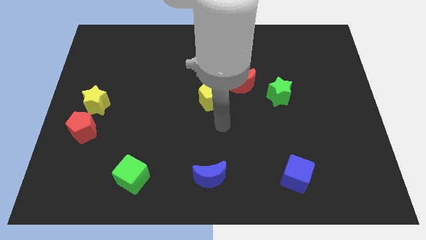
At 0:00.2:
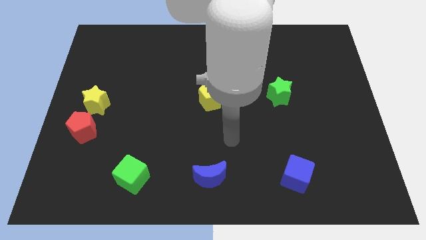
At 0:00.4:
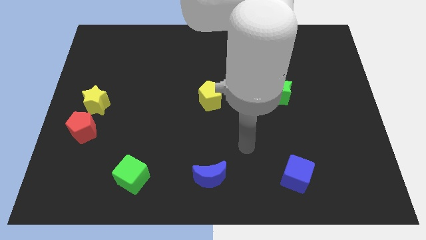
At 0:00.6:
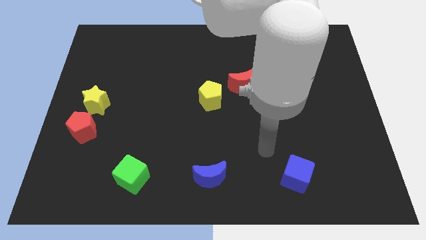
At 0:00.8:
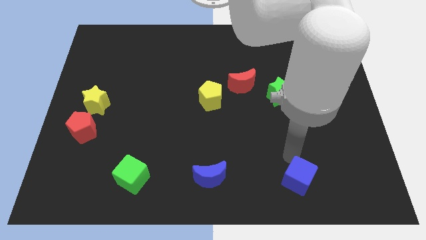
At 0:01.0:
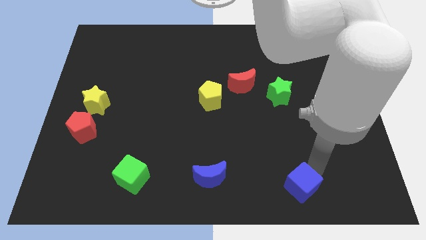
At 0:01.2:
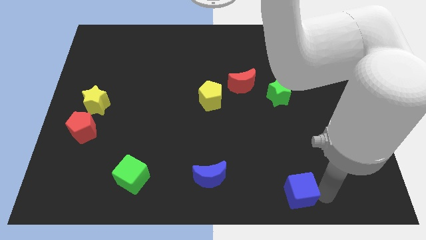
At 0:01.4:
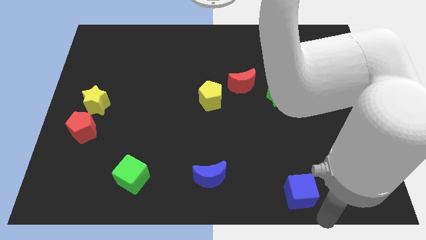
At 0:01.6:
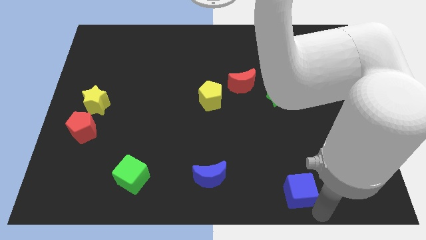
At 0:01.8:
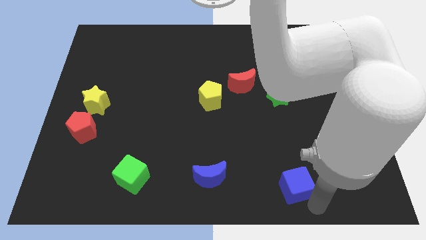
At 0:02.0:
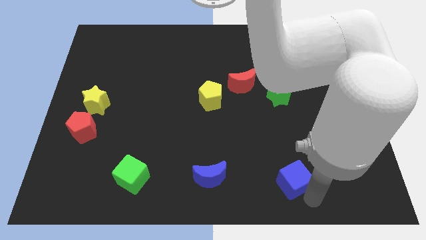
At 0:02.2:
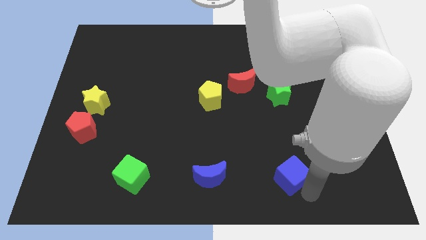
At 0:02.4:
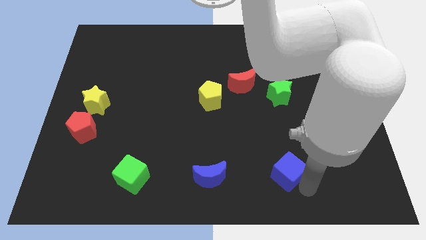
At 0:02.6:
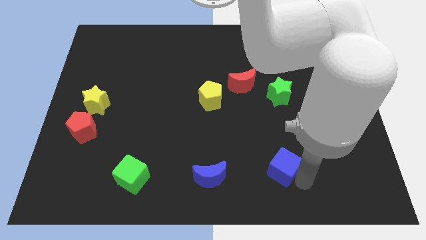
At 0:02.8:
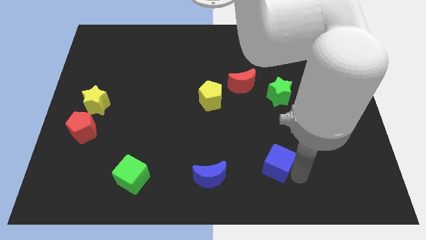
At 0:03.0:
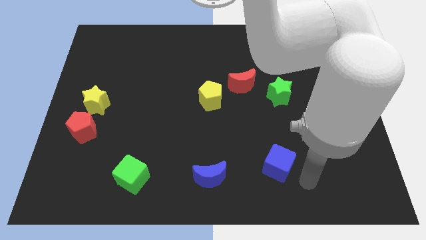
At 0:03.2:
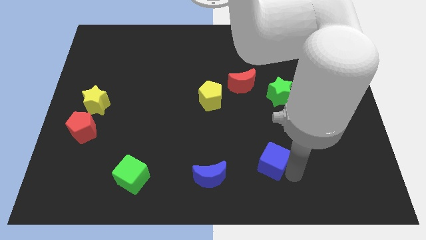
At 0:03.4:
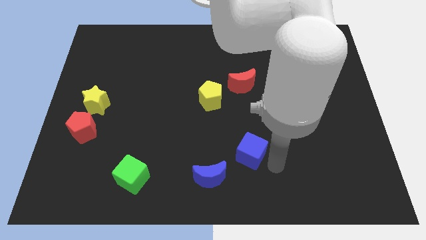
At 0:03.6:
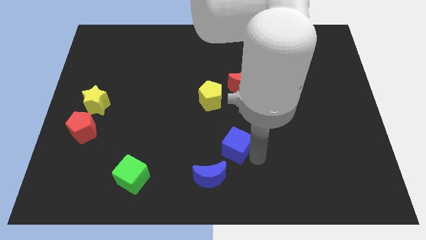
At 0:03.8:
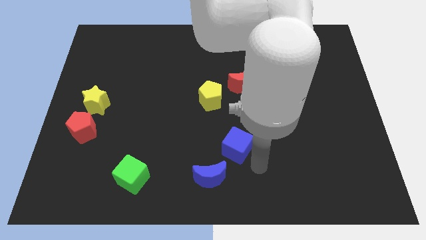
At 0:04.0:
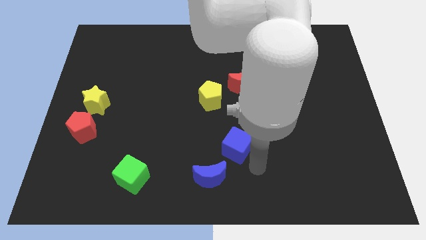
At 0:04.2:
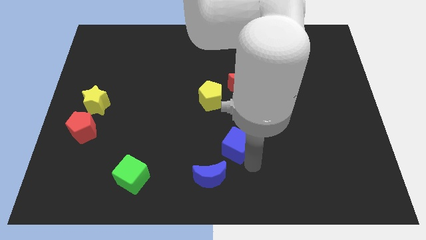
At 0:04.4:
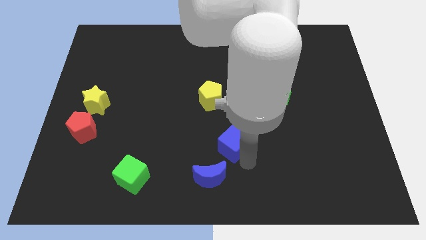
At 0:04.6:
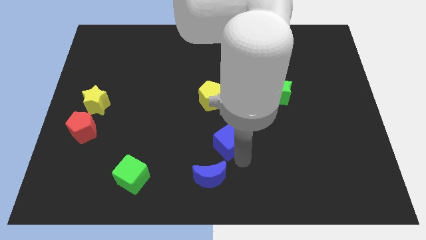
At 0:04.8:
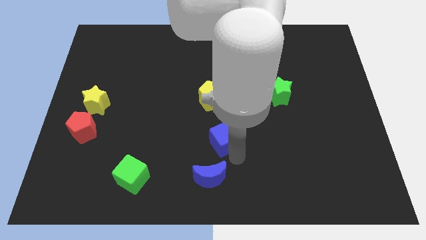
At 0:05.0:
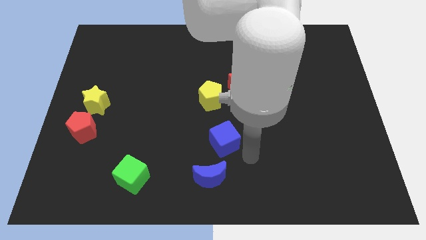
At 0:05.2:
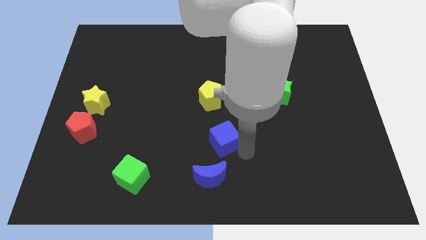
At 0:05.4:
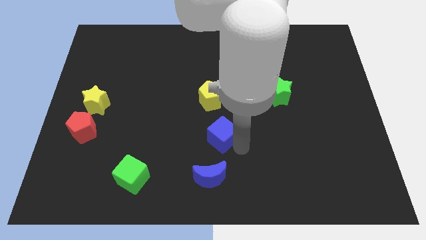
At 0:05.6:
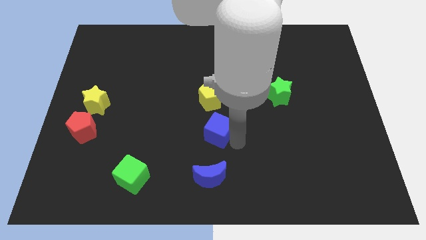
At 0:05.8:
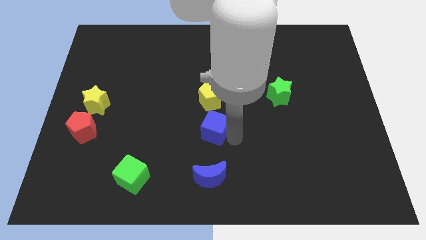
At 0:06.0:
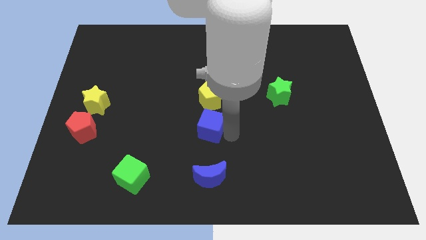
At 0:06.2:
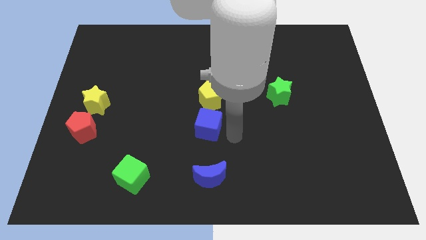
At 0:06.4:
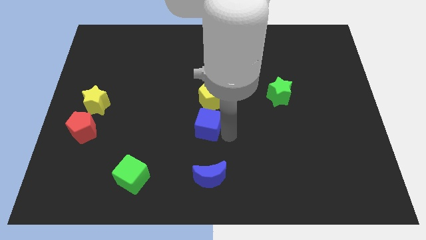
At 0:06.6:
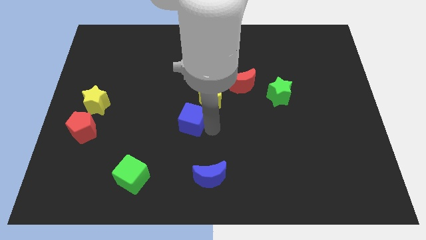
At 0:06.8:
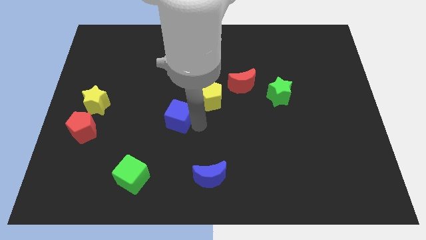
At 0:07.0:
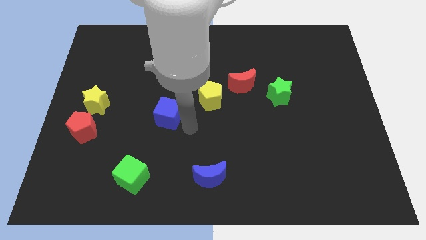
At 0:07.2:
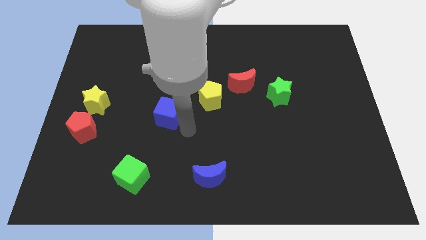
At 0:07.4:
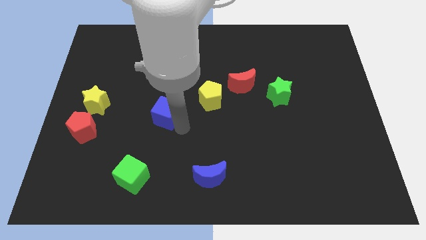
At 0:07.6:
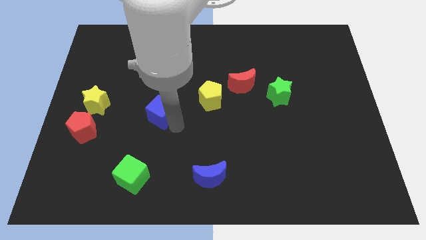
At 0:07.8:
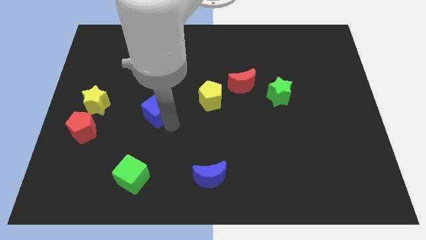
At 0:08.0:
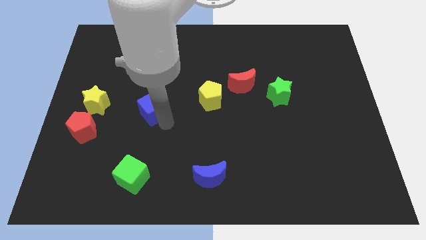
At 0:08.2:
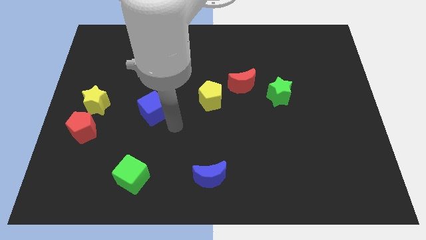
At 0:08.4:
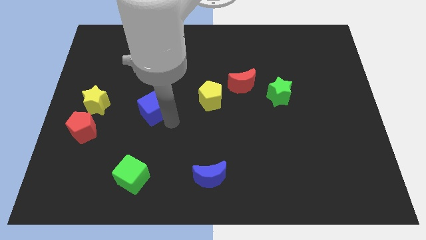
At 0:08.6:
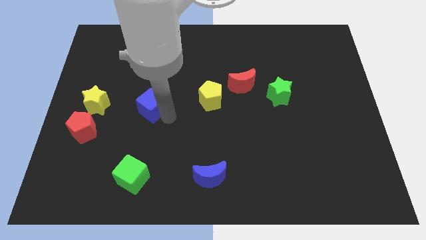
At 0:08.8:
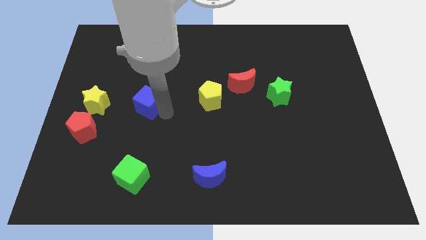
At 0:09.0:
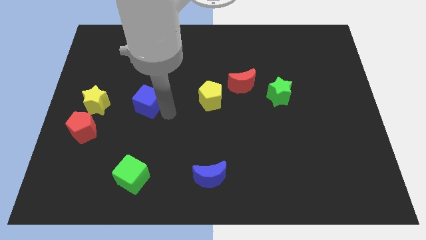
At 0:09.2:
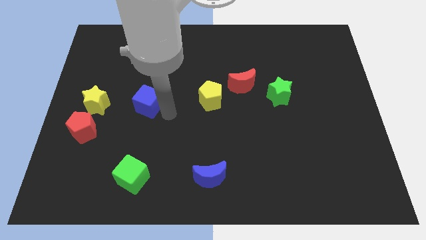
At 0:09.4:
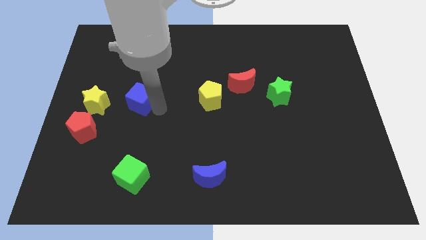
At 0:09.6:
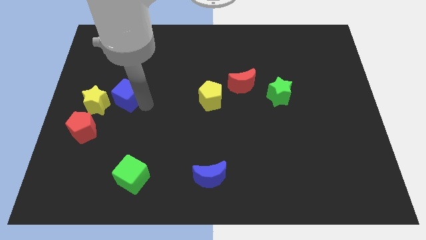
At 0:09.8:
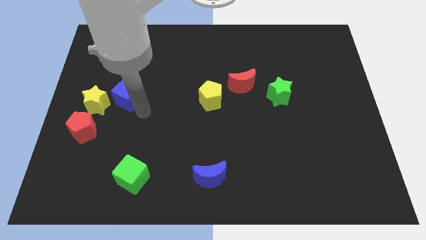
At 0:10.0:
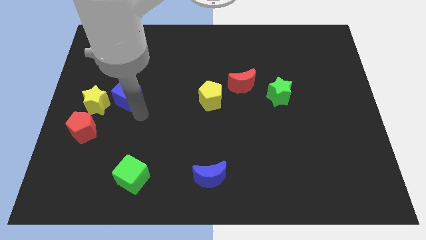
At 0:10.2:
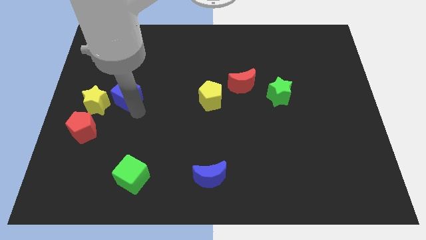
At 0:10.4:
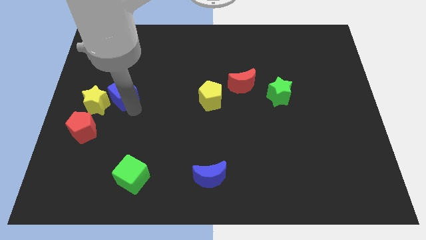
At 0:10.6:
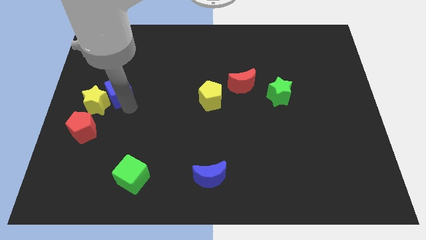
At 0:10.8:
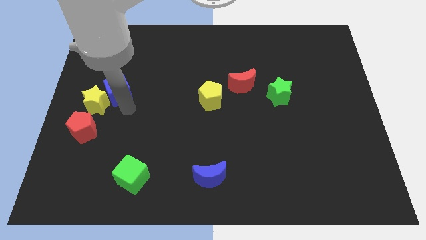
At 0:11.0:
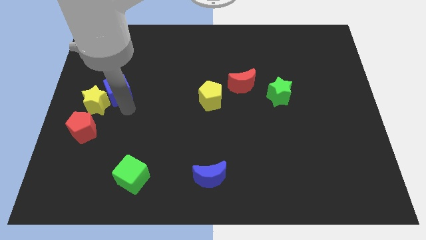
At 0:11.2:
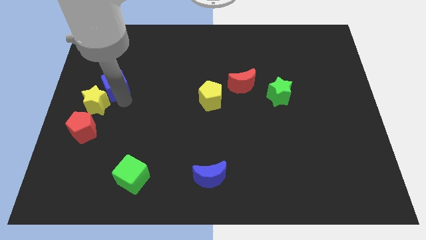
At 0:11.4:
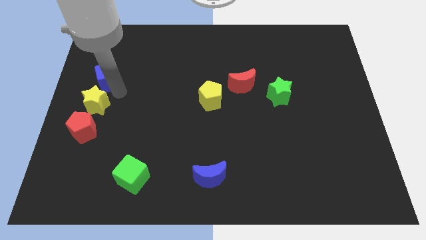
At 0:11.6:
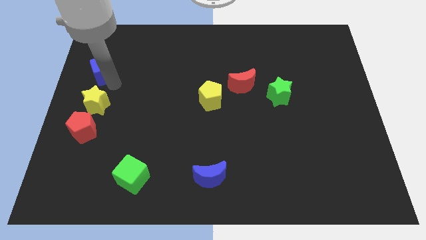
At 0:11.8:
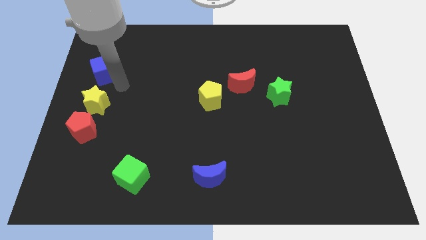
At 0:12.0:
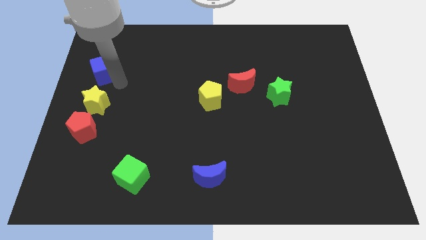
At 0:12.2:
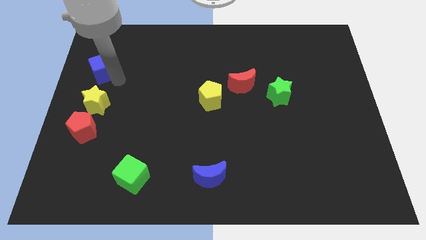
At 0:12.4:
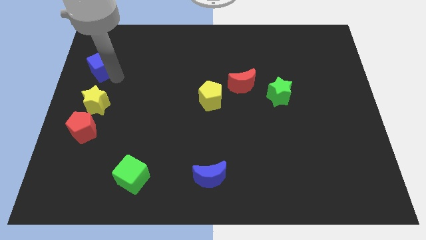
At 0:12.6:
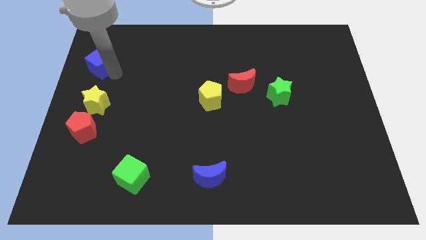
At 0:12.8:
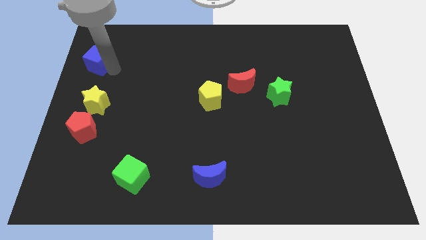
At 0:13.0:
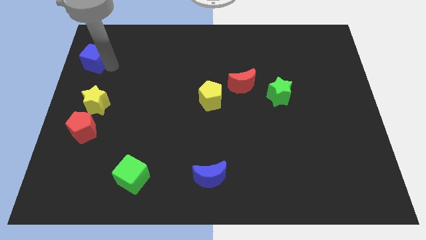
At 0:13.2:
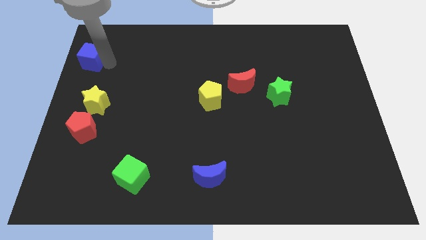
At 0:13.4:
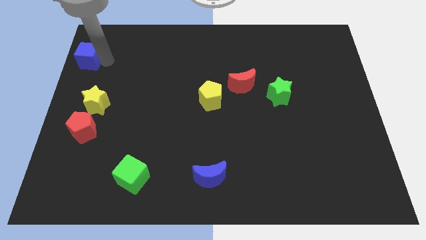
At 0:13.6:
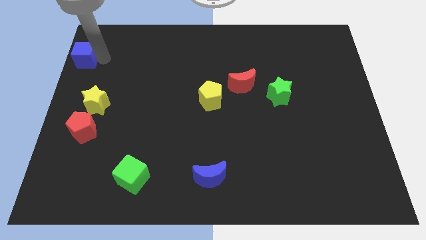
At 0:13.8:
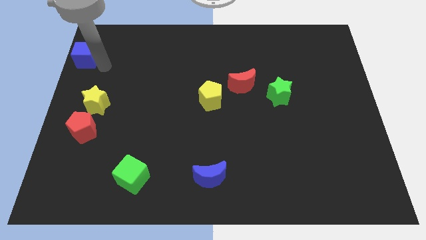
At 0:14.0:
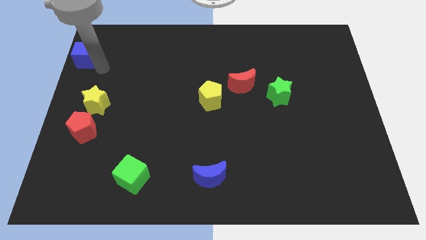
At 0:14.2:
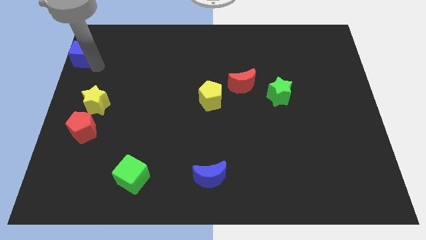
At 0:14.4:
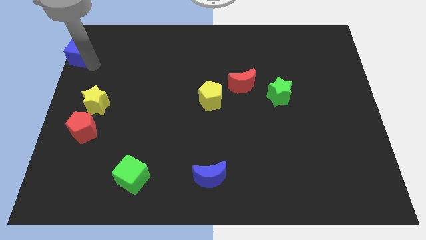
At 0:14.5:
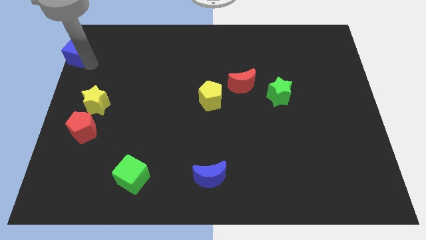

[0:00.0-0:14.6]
slide the blue cube to the top left of the board
